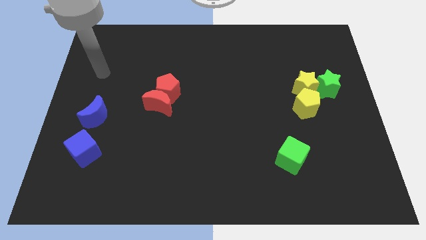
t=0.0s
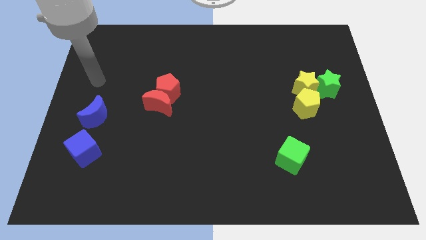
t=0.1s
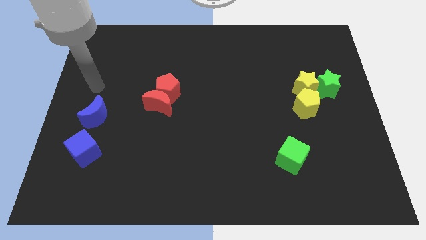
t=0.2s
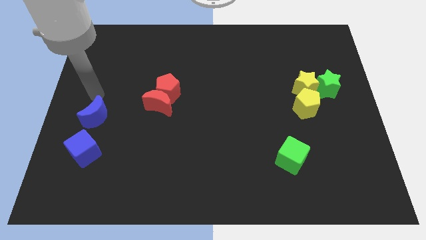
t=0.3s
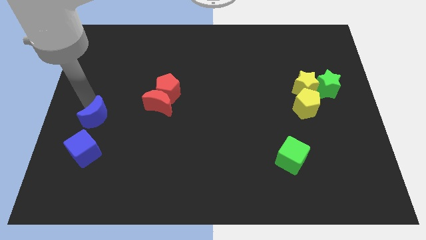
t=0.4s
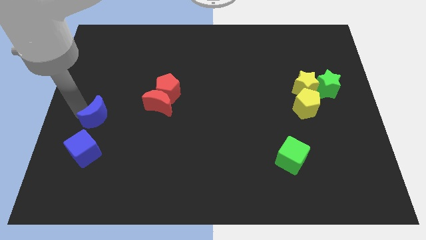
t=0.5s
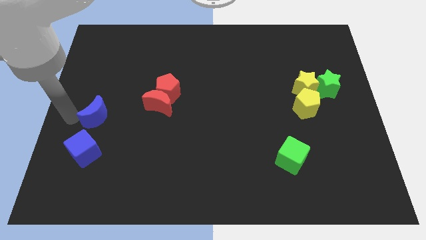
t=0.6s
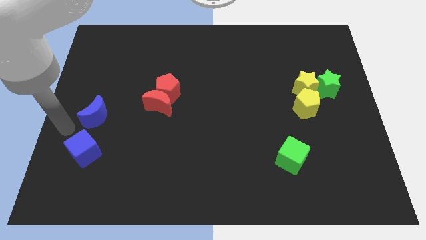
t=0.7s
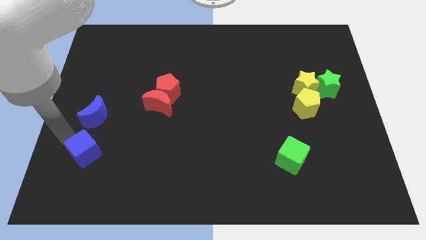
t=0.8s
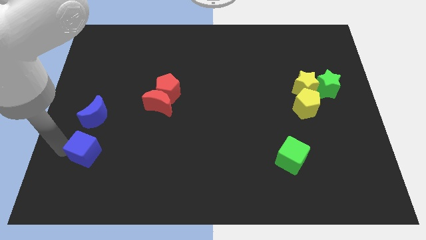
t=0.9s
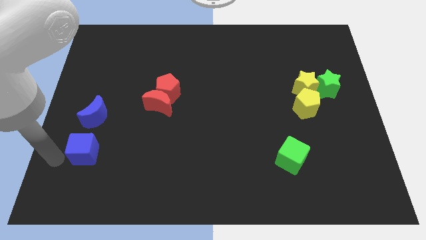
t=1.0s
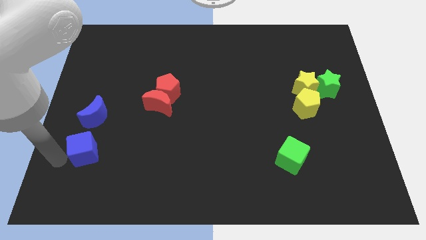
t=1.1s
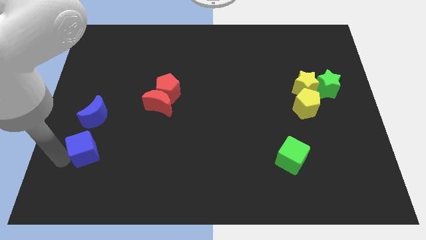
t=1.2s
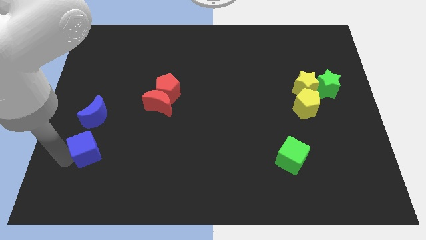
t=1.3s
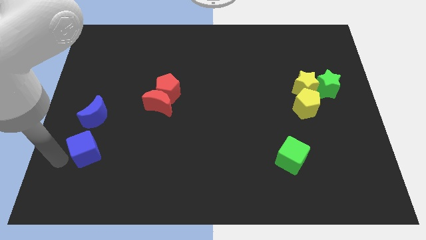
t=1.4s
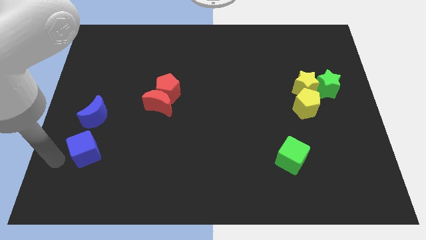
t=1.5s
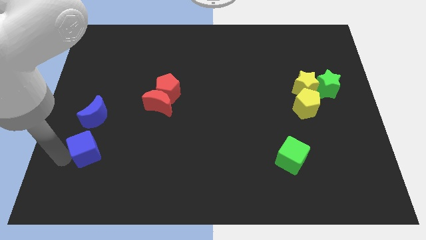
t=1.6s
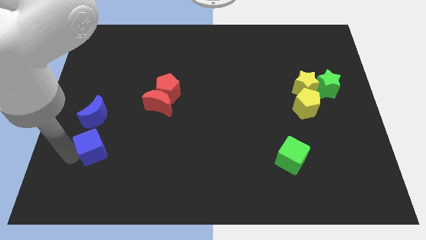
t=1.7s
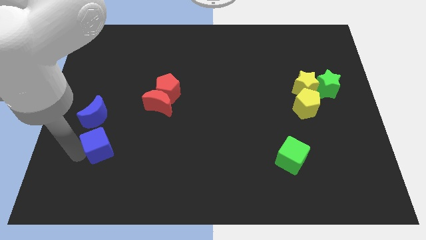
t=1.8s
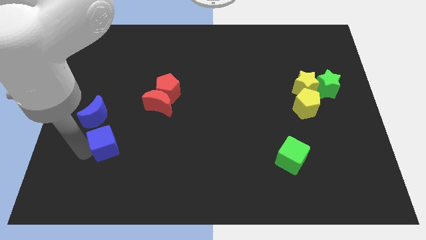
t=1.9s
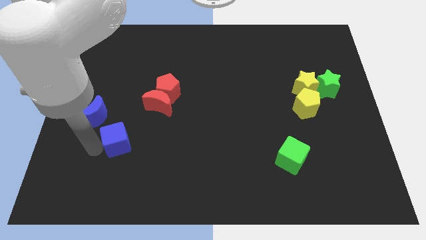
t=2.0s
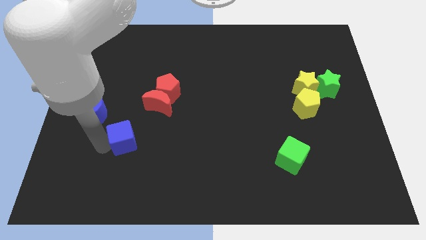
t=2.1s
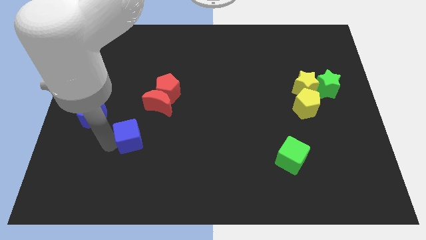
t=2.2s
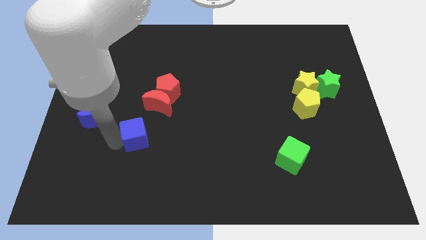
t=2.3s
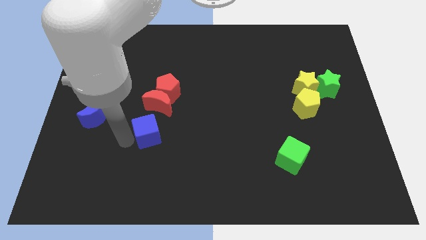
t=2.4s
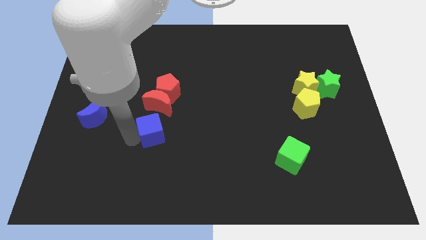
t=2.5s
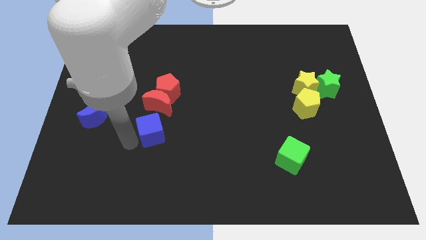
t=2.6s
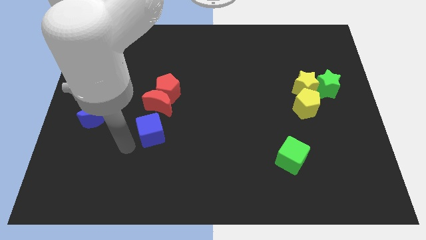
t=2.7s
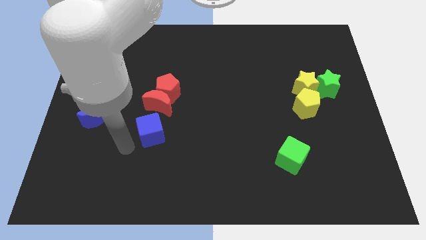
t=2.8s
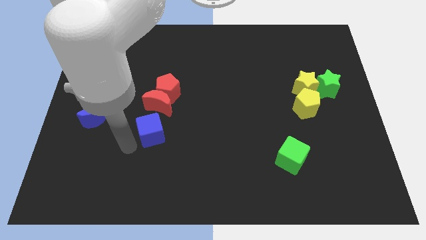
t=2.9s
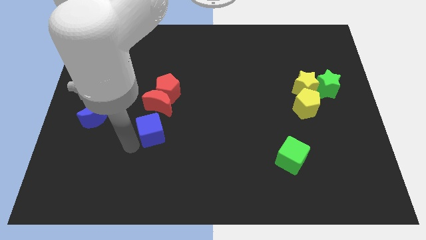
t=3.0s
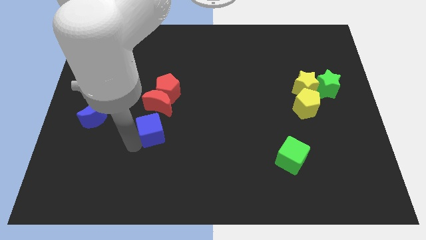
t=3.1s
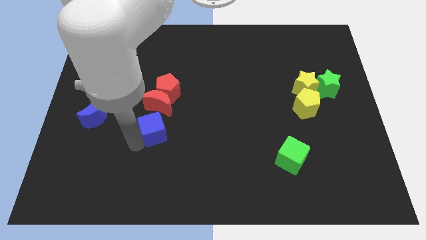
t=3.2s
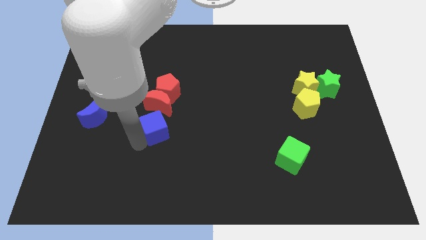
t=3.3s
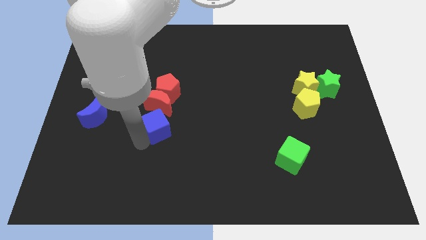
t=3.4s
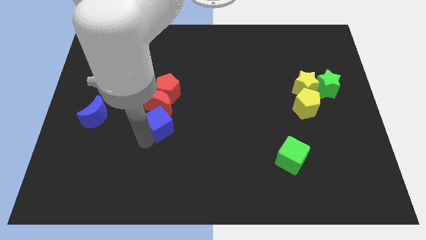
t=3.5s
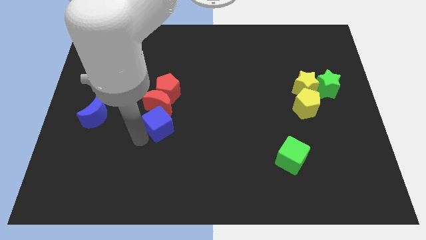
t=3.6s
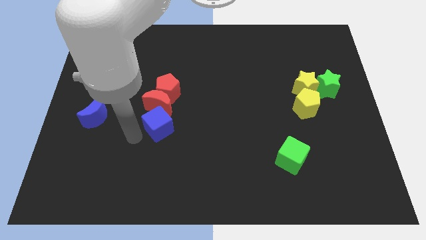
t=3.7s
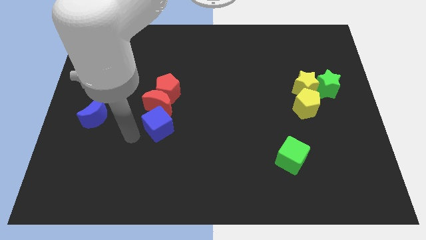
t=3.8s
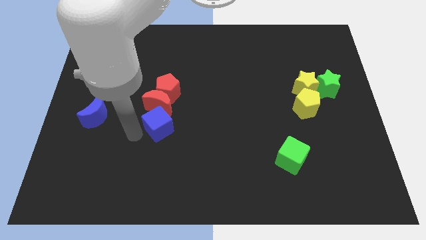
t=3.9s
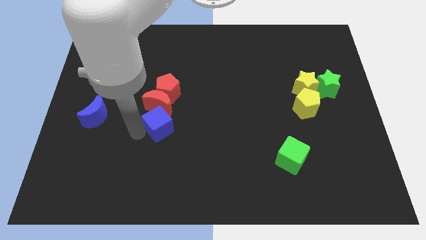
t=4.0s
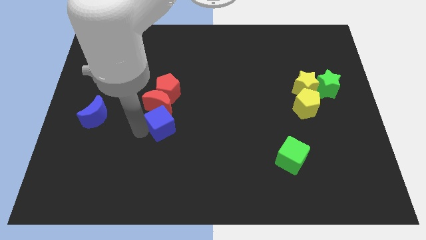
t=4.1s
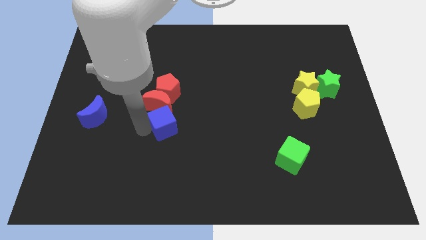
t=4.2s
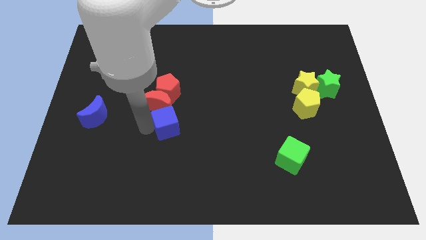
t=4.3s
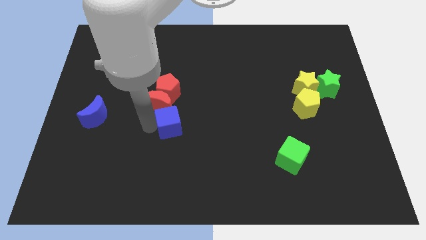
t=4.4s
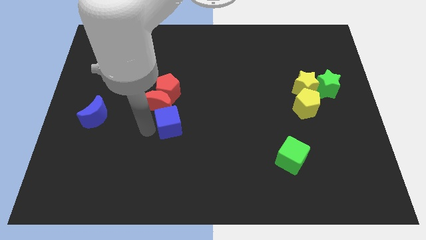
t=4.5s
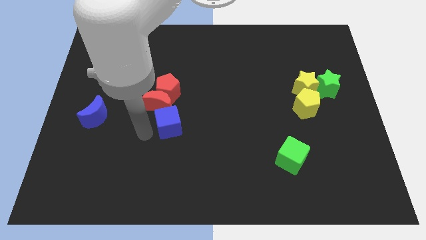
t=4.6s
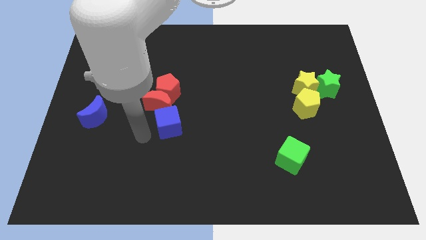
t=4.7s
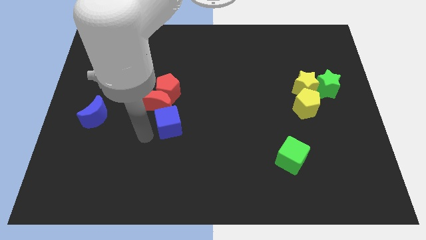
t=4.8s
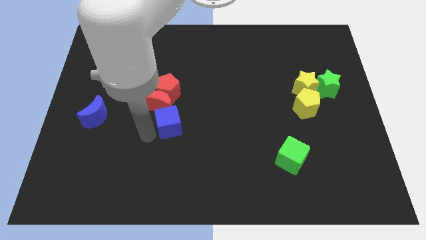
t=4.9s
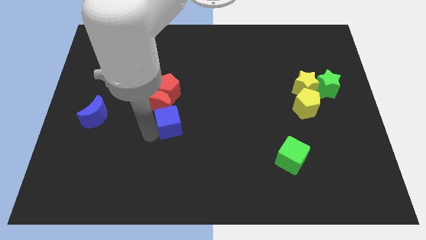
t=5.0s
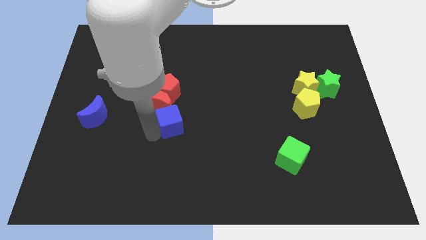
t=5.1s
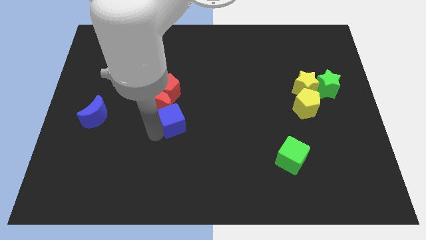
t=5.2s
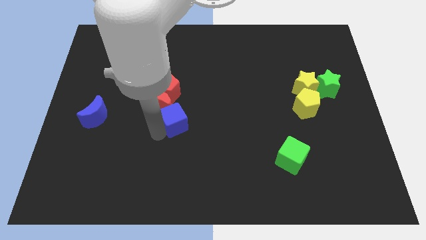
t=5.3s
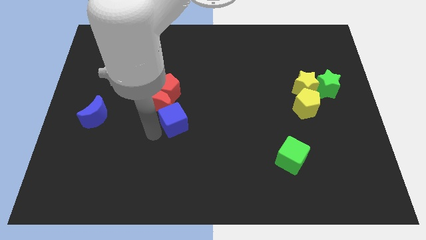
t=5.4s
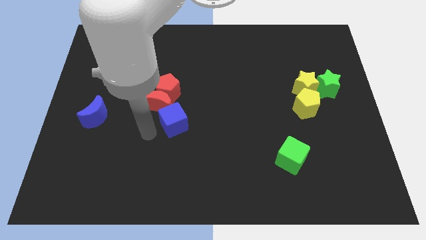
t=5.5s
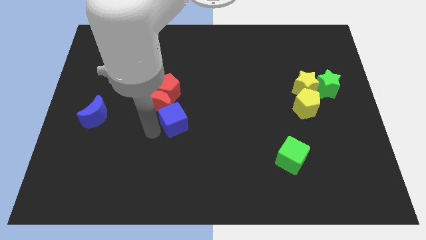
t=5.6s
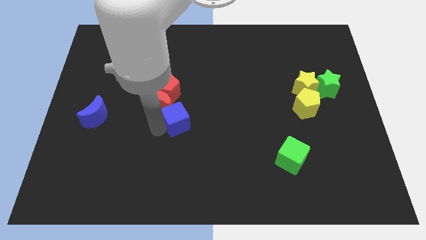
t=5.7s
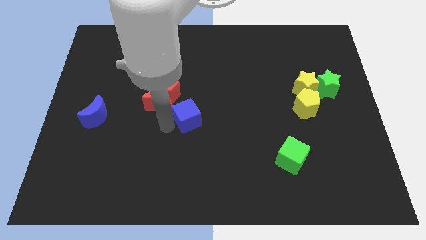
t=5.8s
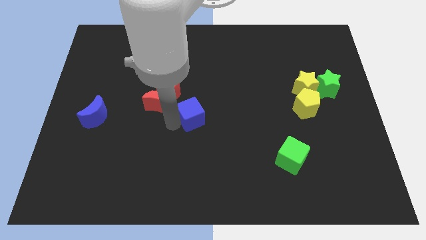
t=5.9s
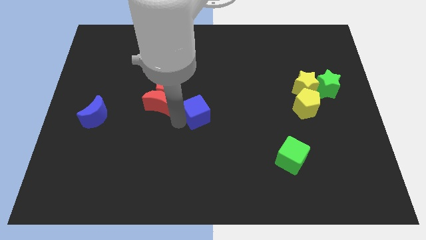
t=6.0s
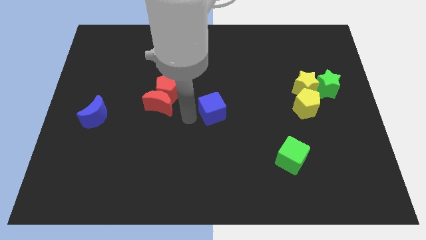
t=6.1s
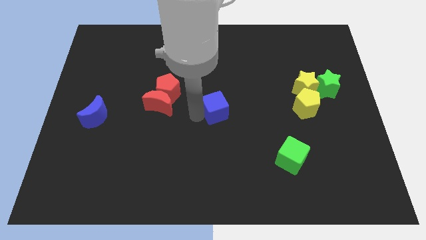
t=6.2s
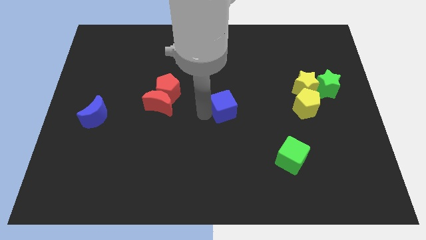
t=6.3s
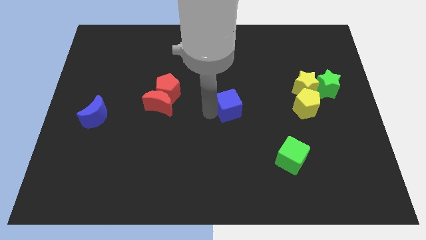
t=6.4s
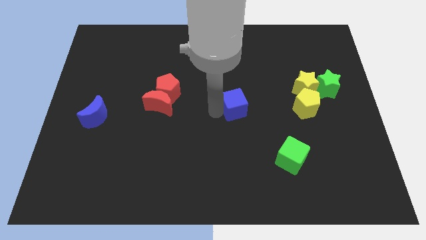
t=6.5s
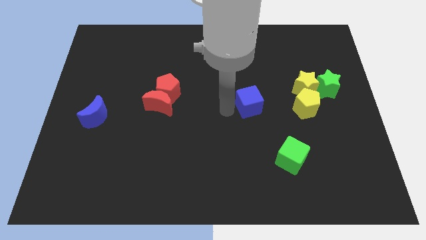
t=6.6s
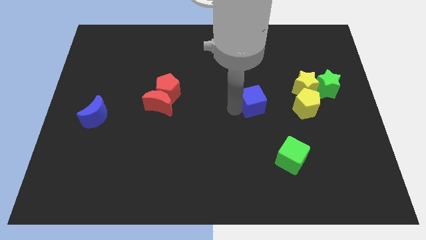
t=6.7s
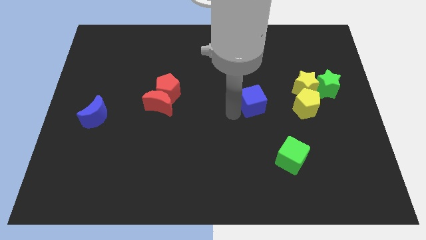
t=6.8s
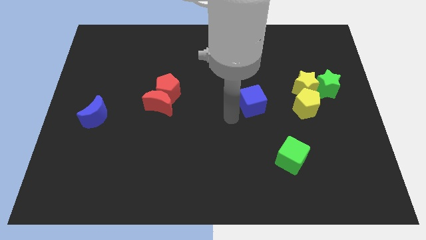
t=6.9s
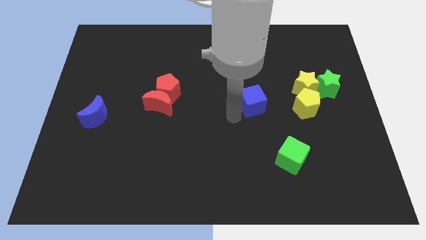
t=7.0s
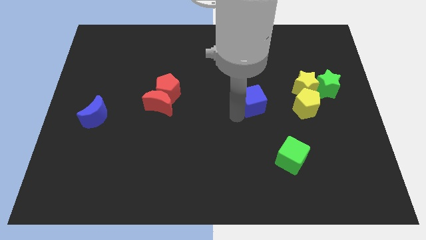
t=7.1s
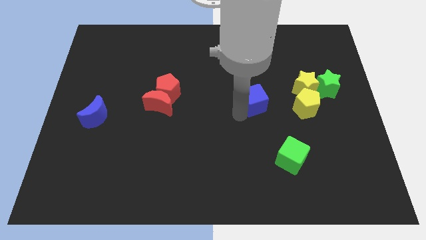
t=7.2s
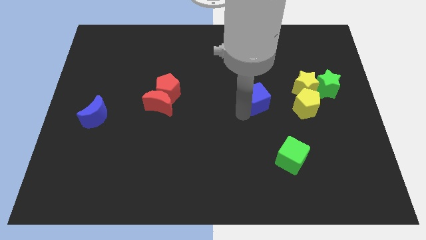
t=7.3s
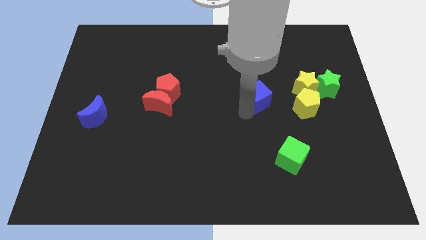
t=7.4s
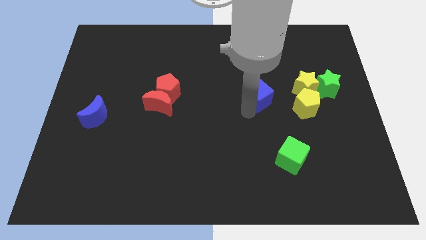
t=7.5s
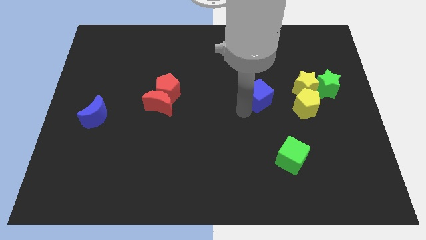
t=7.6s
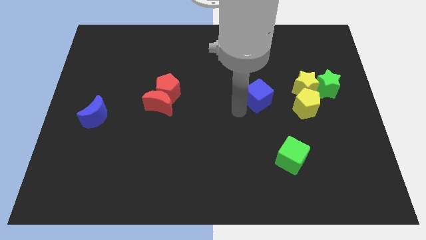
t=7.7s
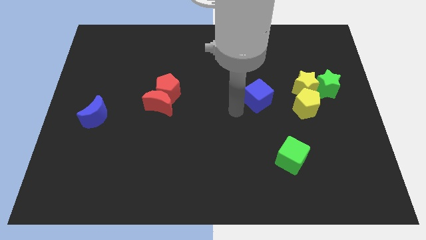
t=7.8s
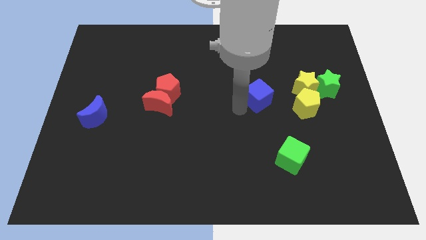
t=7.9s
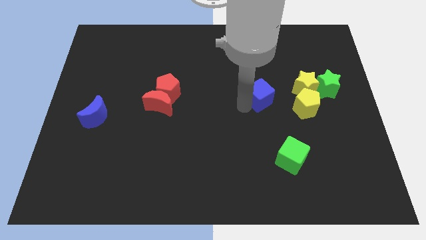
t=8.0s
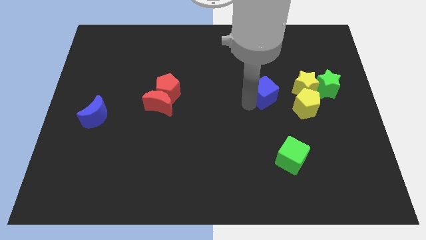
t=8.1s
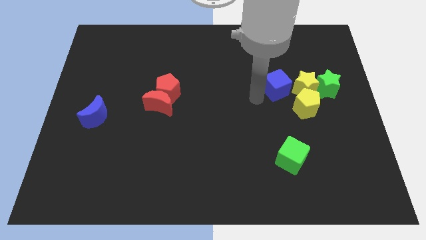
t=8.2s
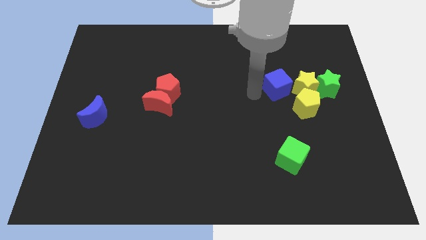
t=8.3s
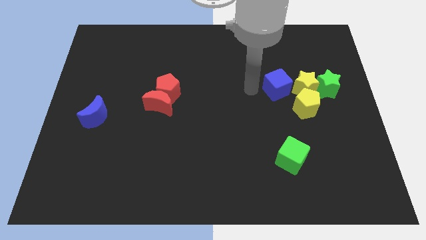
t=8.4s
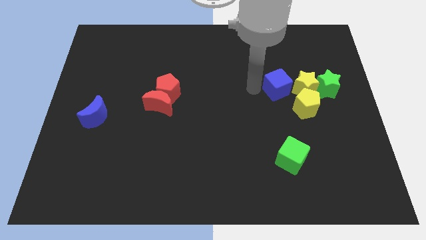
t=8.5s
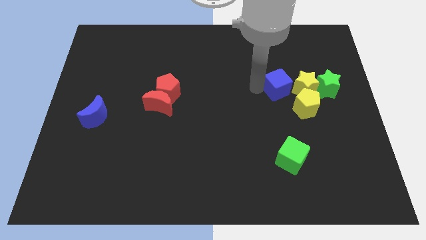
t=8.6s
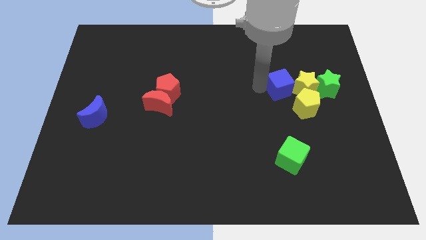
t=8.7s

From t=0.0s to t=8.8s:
move the blue cube towards the yellow star
